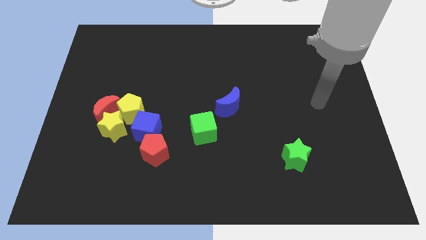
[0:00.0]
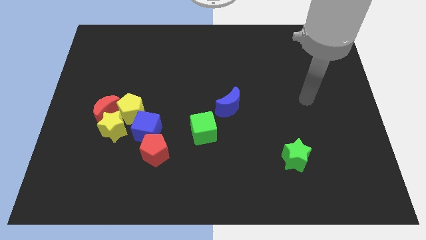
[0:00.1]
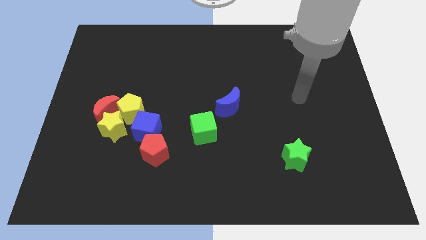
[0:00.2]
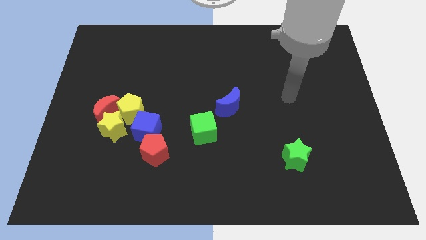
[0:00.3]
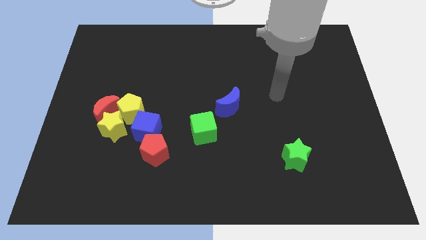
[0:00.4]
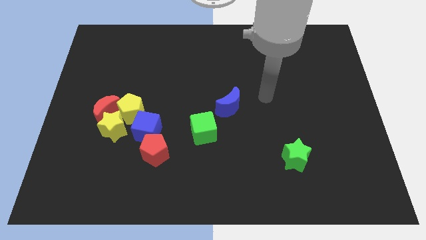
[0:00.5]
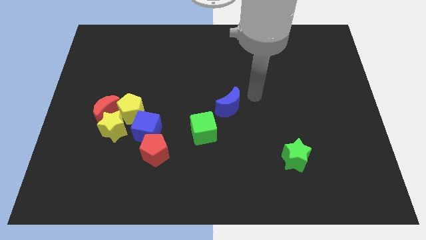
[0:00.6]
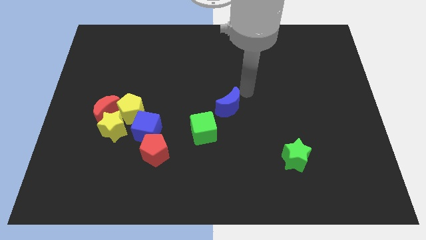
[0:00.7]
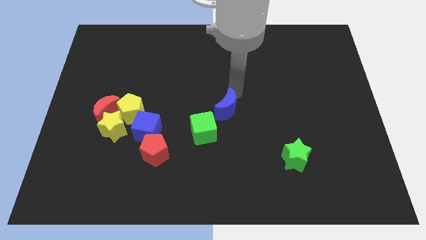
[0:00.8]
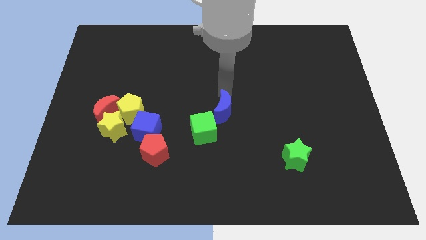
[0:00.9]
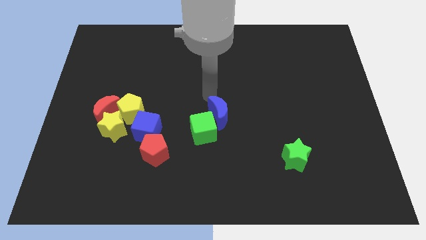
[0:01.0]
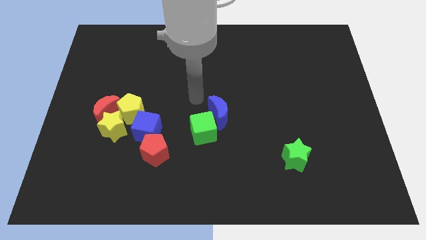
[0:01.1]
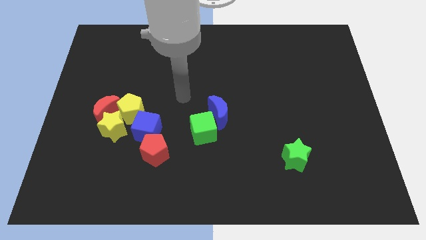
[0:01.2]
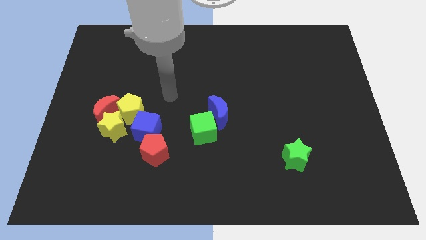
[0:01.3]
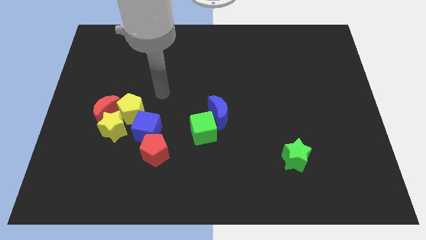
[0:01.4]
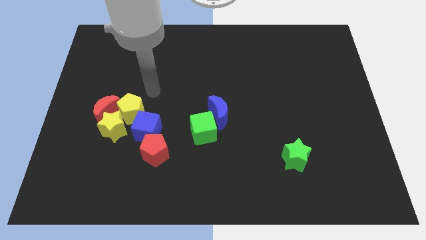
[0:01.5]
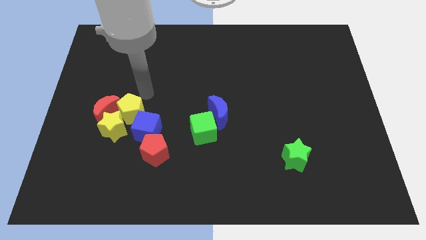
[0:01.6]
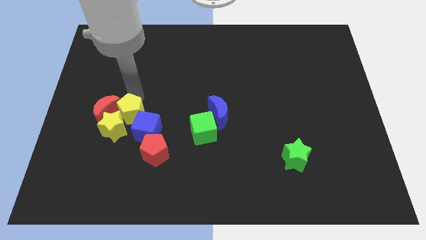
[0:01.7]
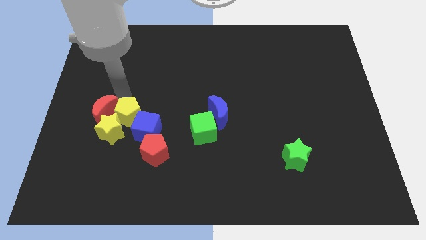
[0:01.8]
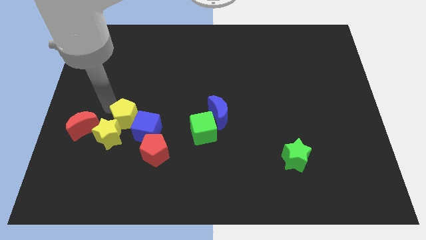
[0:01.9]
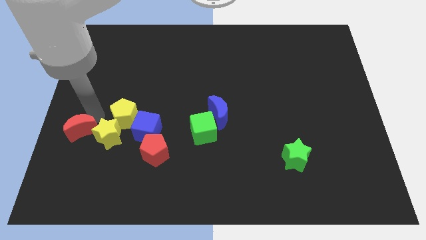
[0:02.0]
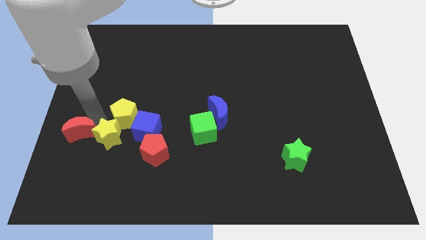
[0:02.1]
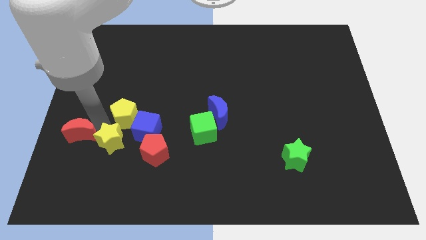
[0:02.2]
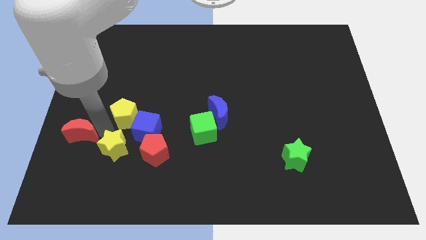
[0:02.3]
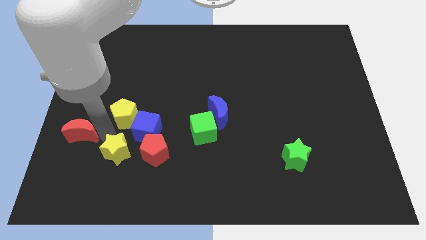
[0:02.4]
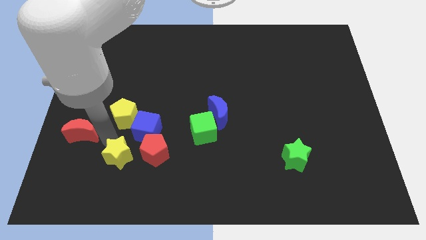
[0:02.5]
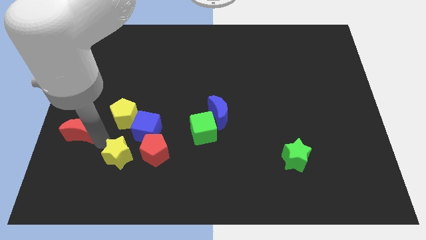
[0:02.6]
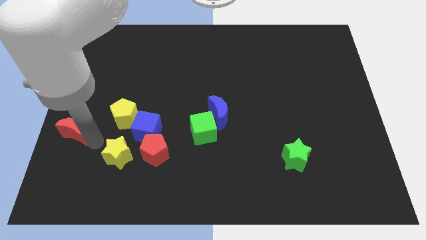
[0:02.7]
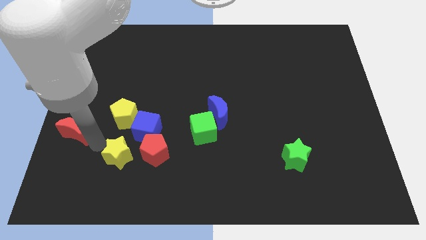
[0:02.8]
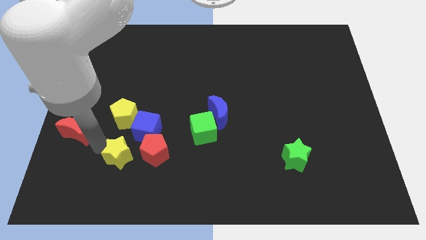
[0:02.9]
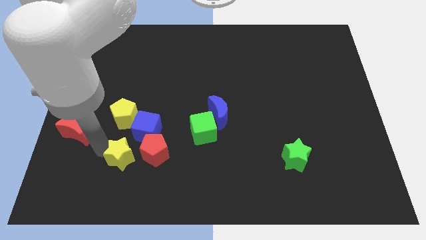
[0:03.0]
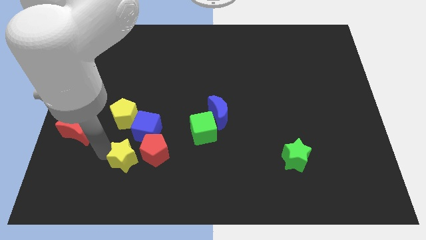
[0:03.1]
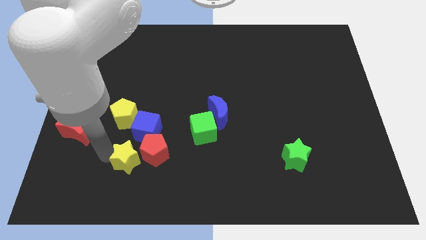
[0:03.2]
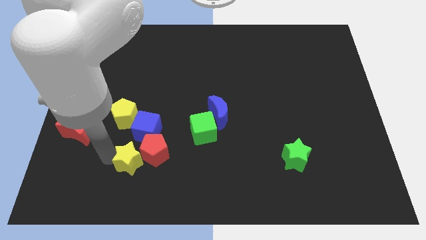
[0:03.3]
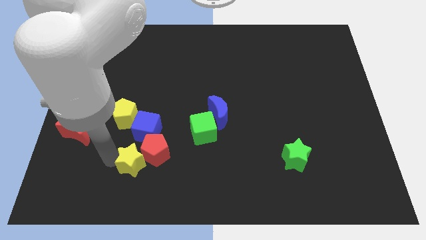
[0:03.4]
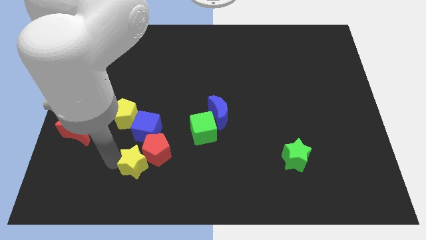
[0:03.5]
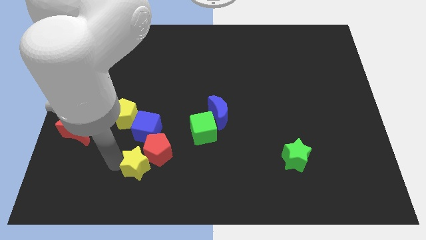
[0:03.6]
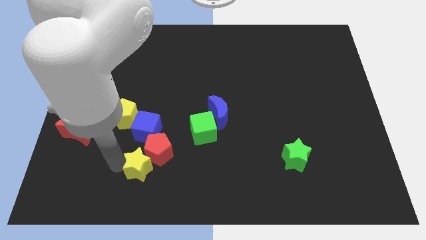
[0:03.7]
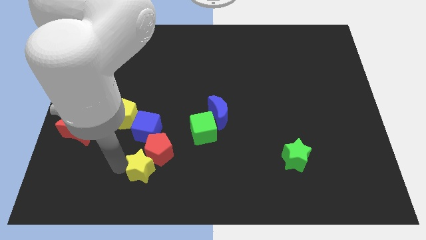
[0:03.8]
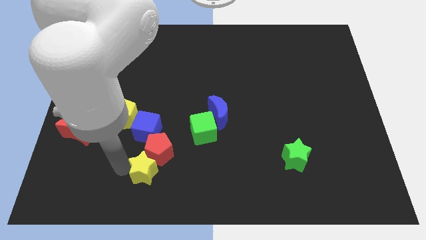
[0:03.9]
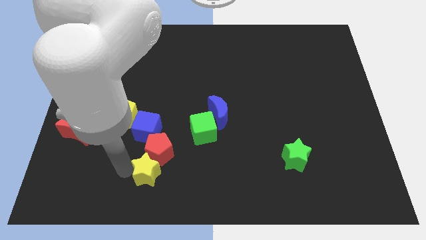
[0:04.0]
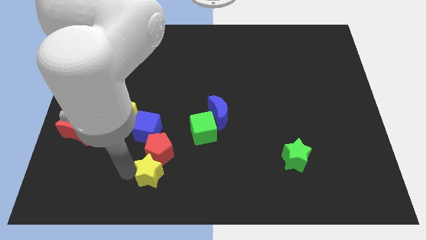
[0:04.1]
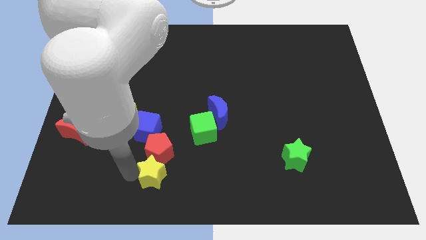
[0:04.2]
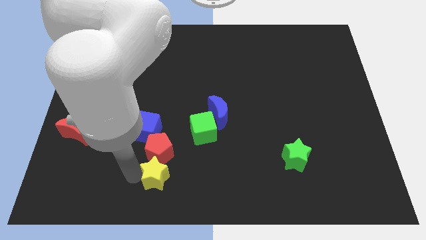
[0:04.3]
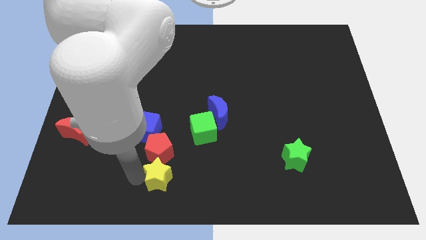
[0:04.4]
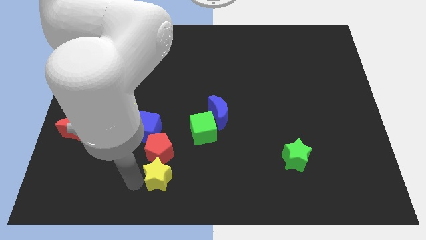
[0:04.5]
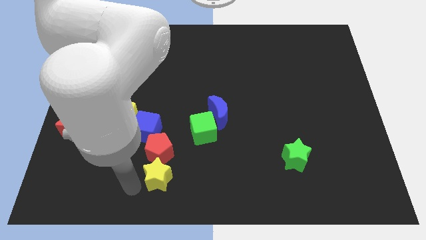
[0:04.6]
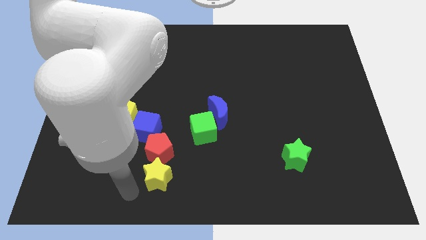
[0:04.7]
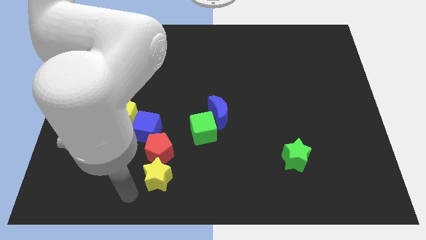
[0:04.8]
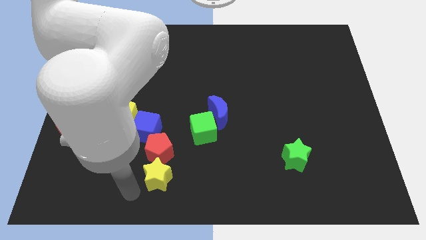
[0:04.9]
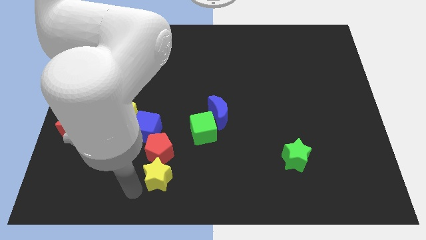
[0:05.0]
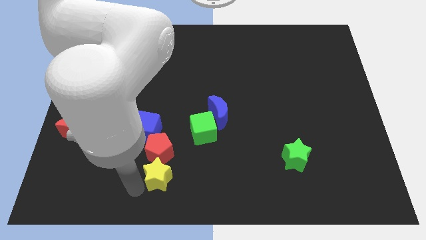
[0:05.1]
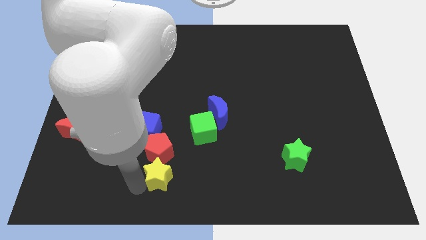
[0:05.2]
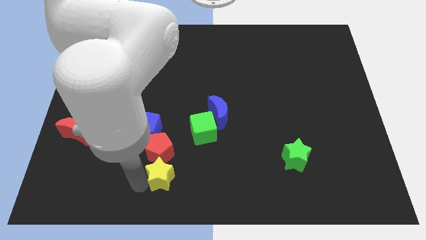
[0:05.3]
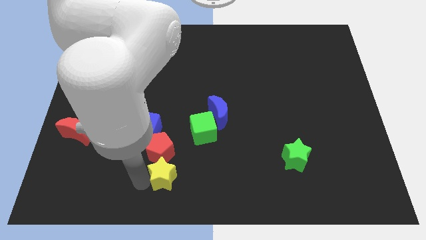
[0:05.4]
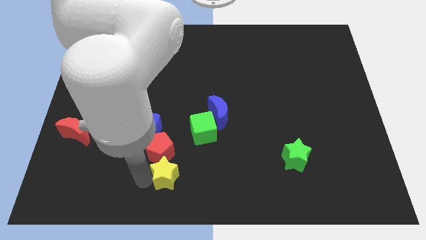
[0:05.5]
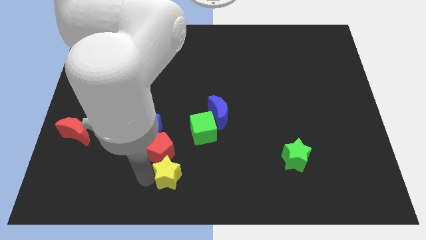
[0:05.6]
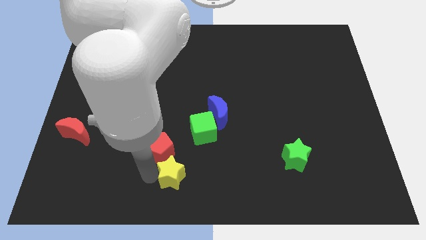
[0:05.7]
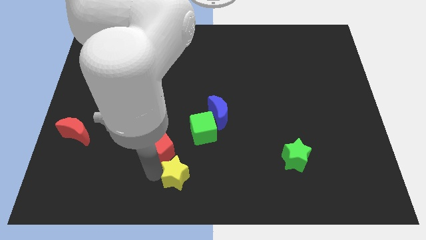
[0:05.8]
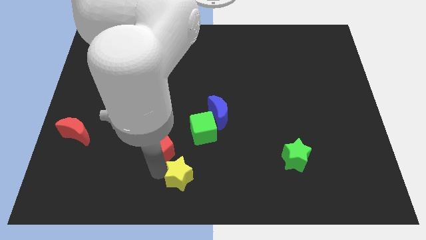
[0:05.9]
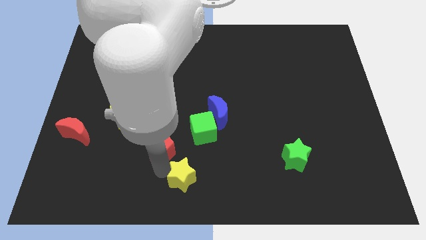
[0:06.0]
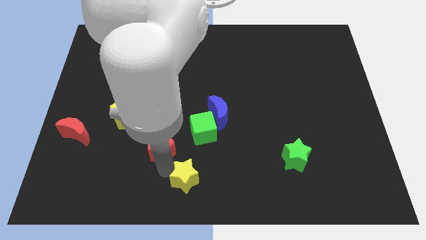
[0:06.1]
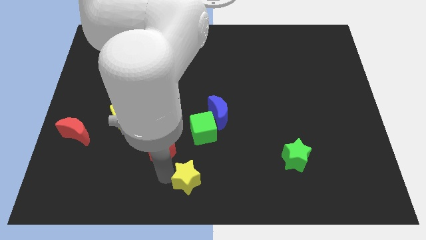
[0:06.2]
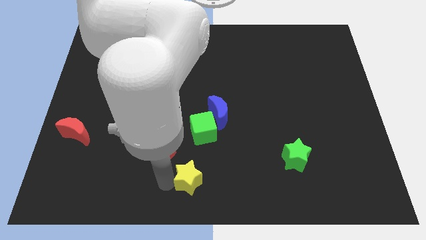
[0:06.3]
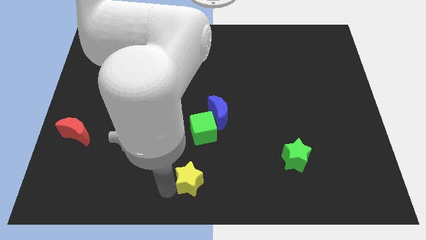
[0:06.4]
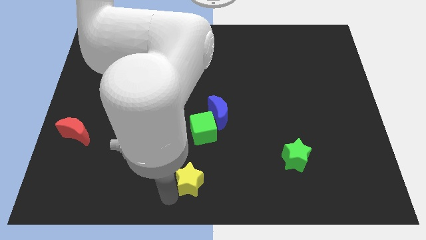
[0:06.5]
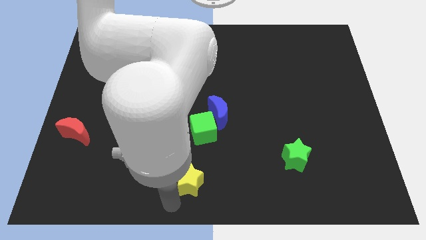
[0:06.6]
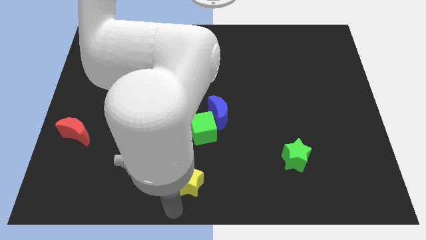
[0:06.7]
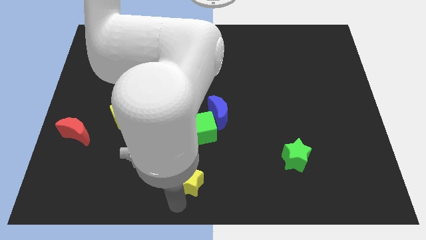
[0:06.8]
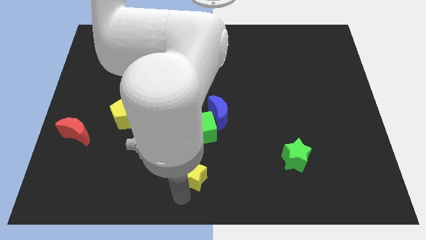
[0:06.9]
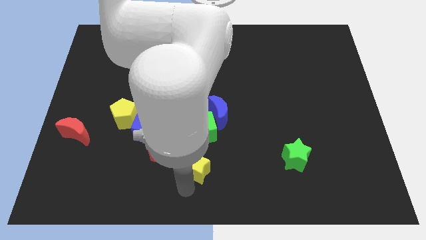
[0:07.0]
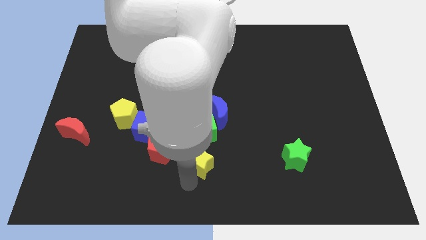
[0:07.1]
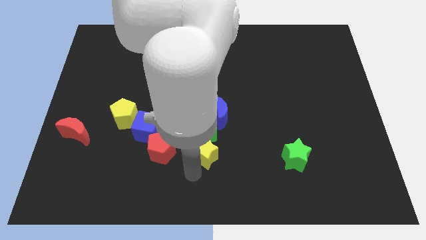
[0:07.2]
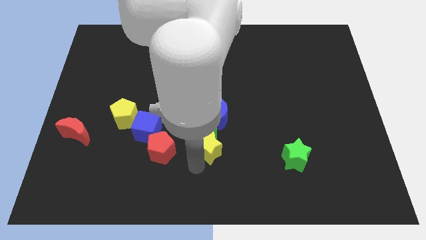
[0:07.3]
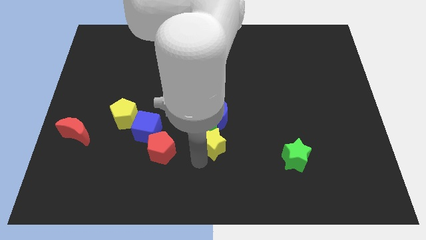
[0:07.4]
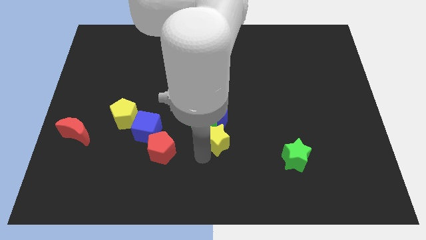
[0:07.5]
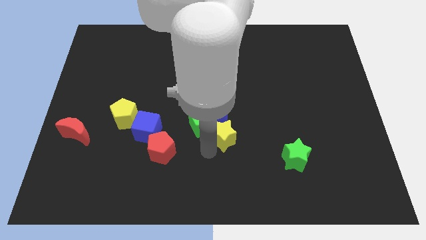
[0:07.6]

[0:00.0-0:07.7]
move the yellow star close to the blue moon
